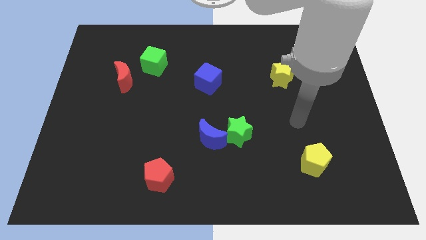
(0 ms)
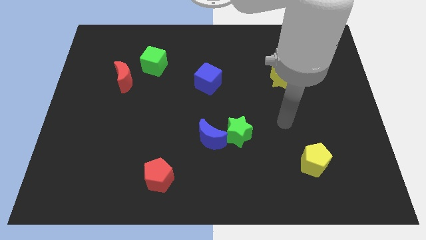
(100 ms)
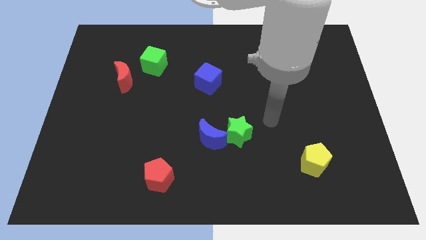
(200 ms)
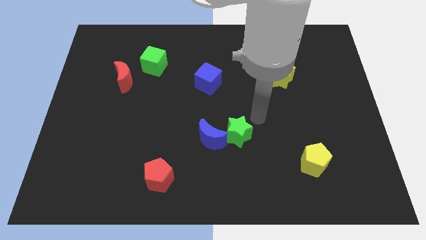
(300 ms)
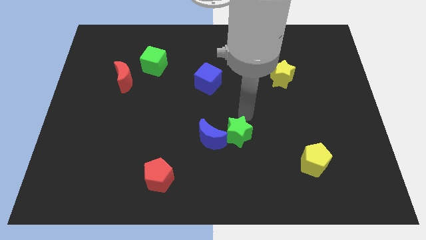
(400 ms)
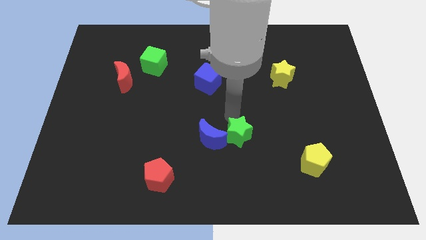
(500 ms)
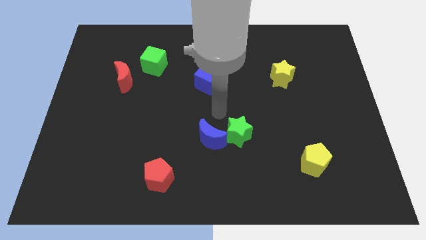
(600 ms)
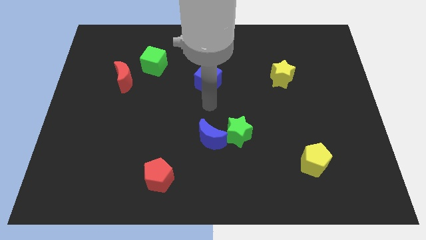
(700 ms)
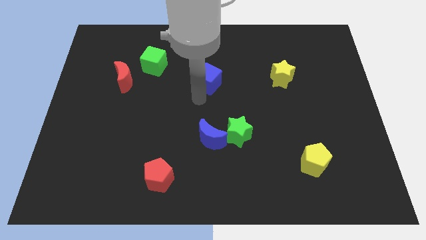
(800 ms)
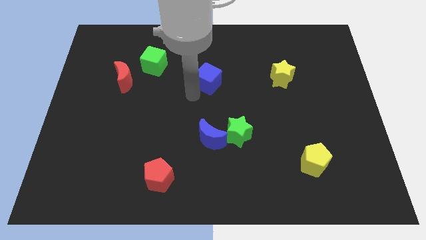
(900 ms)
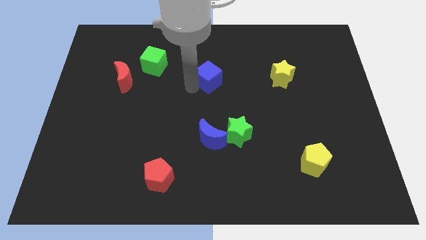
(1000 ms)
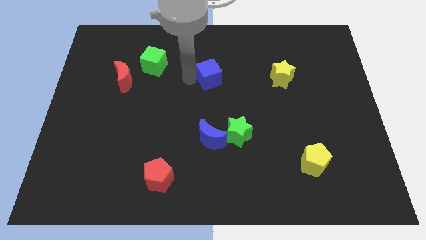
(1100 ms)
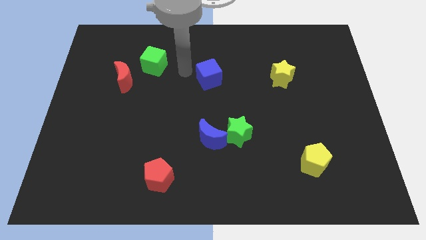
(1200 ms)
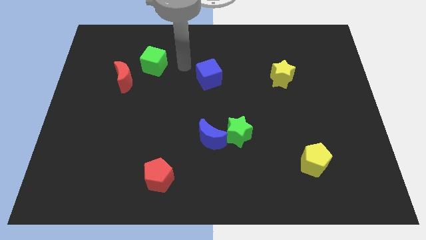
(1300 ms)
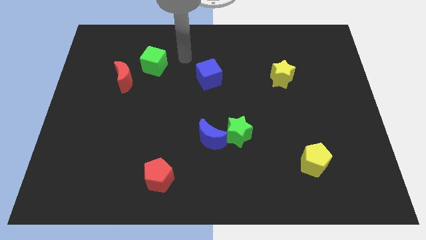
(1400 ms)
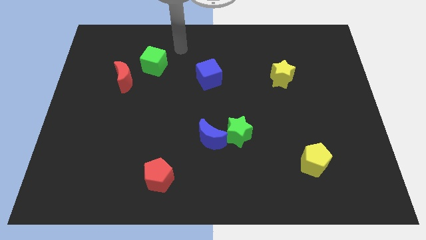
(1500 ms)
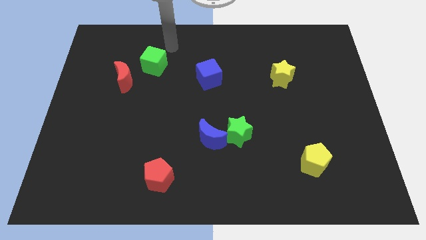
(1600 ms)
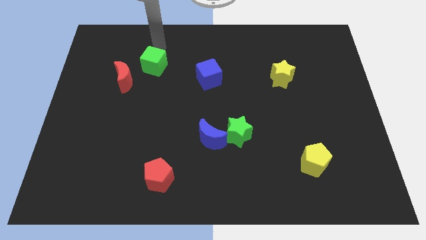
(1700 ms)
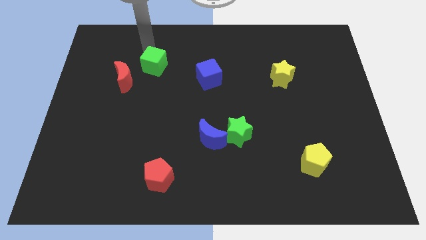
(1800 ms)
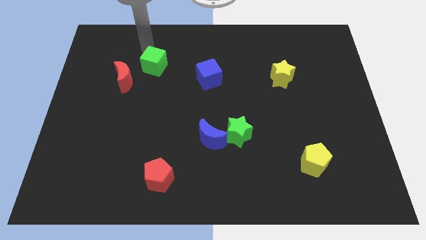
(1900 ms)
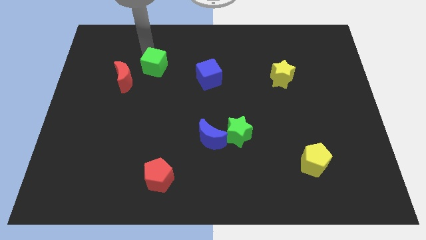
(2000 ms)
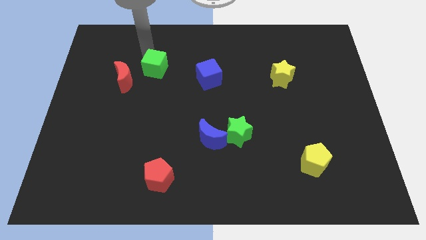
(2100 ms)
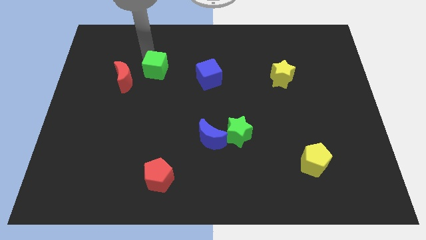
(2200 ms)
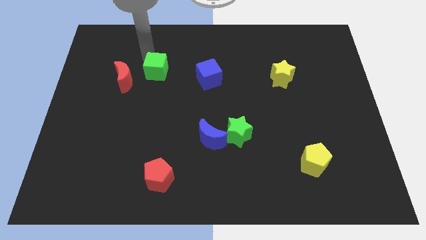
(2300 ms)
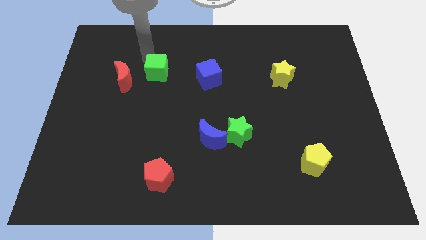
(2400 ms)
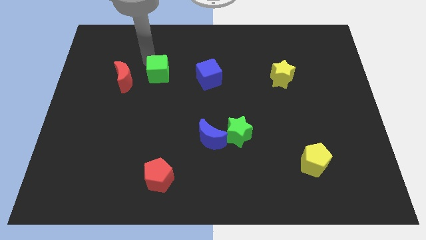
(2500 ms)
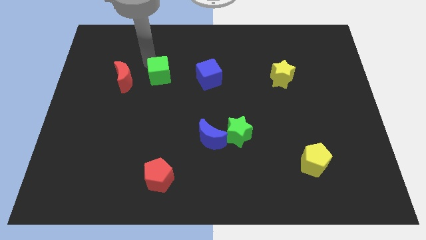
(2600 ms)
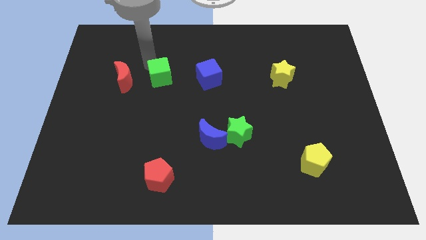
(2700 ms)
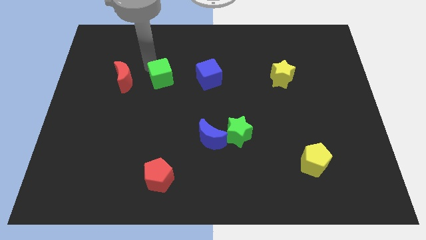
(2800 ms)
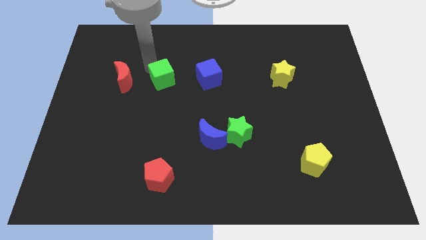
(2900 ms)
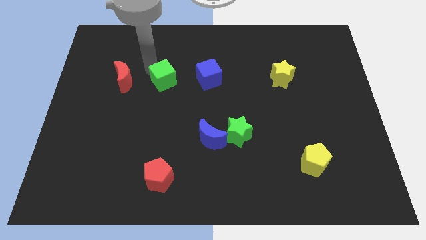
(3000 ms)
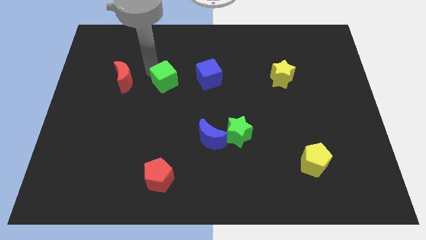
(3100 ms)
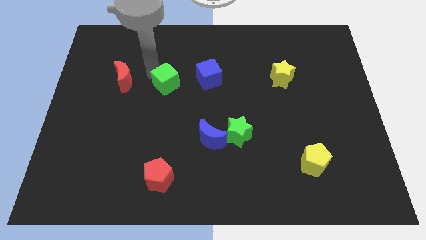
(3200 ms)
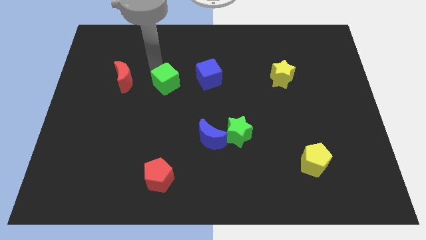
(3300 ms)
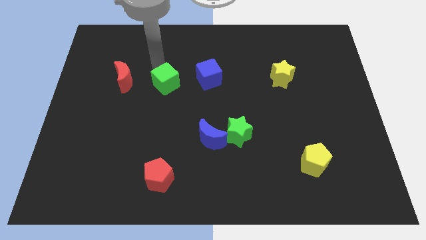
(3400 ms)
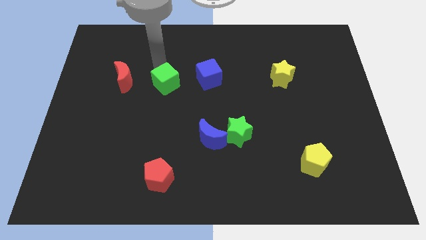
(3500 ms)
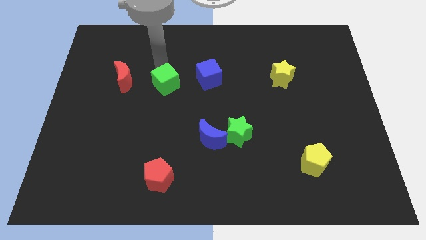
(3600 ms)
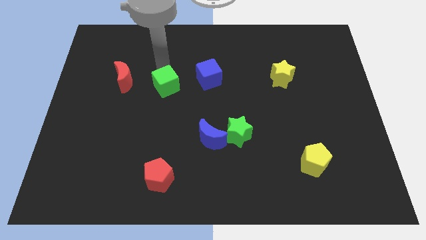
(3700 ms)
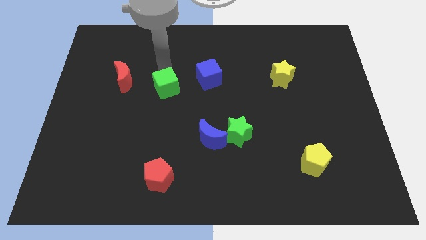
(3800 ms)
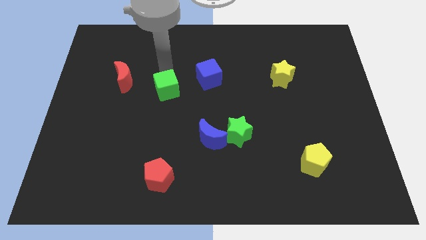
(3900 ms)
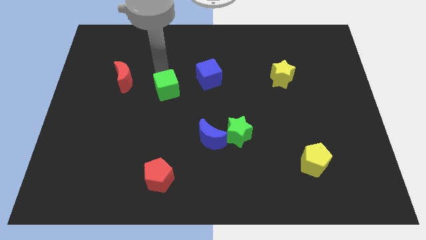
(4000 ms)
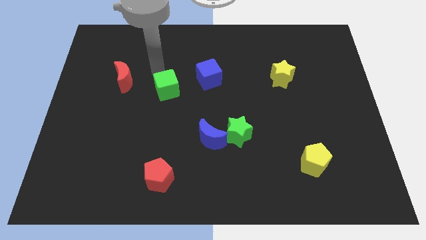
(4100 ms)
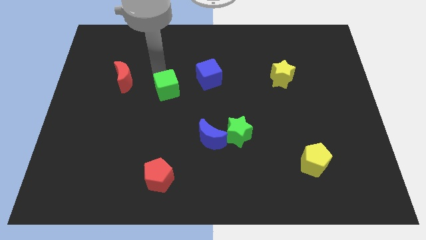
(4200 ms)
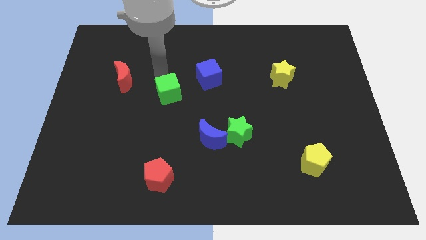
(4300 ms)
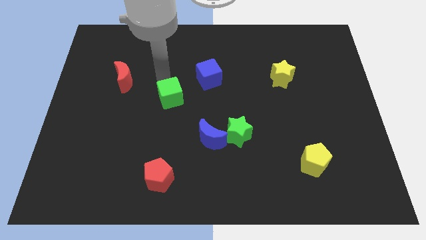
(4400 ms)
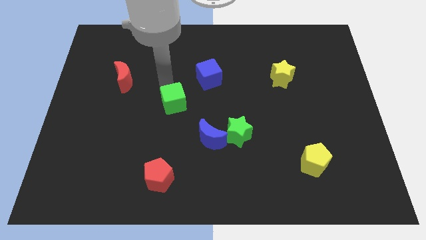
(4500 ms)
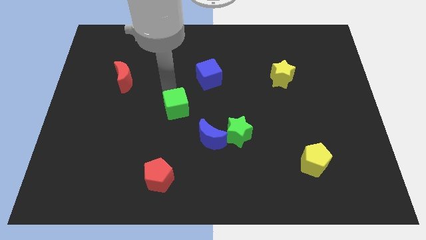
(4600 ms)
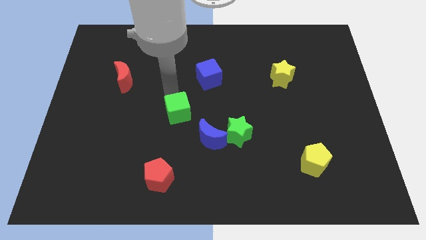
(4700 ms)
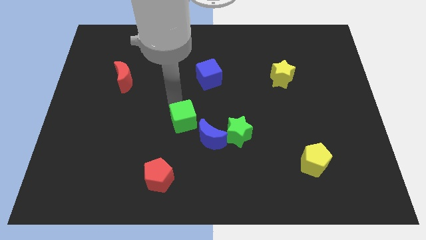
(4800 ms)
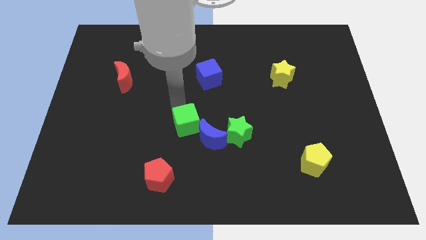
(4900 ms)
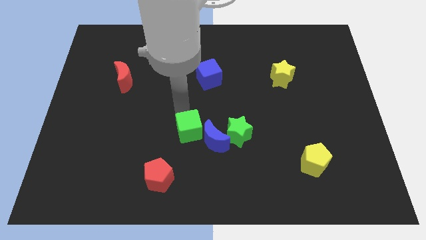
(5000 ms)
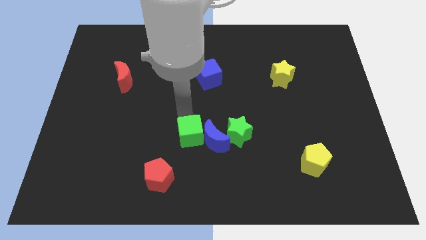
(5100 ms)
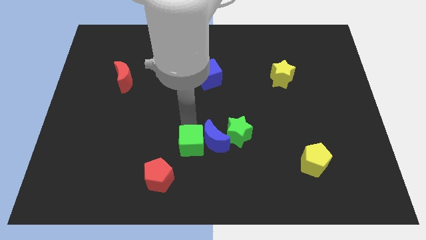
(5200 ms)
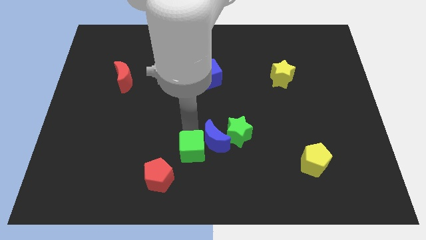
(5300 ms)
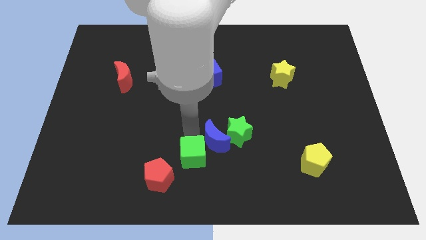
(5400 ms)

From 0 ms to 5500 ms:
slide the green cube to the bottom
